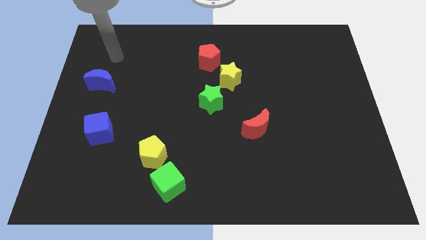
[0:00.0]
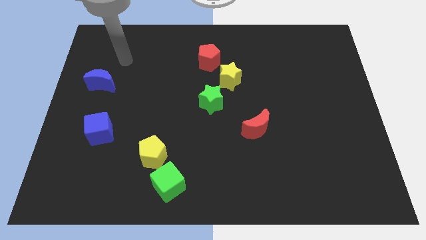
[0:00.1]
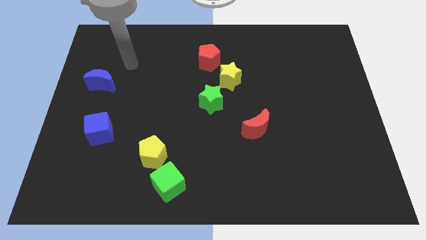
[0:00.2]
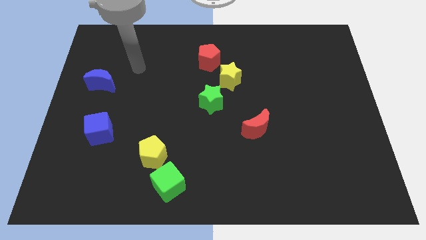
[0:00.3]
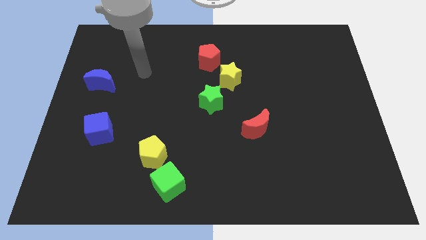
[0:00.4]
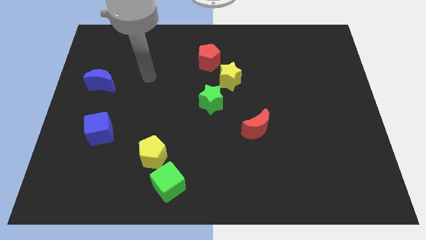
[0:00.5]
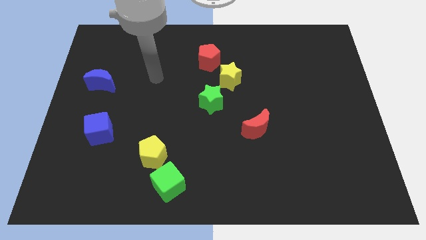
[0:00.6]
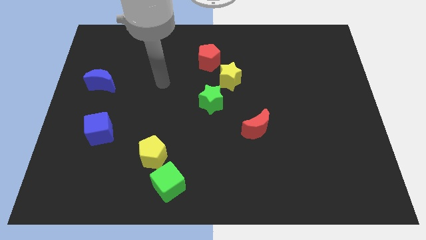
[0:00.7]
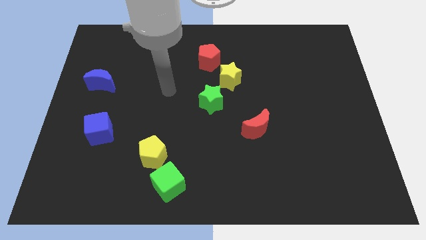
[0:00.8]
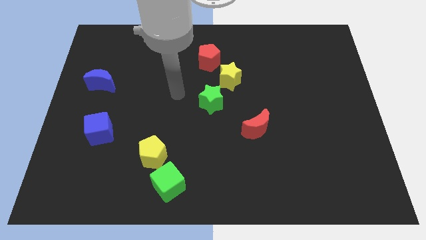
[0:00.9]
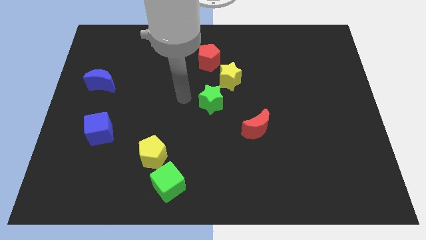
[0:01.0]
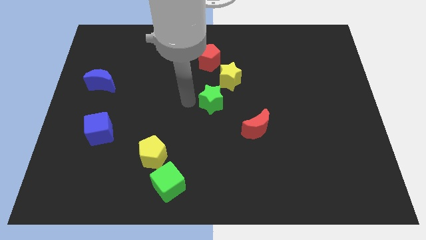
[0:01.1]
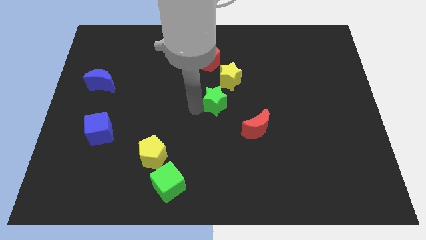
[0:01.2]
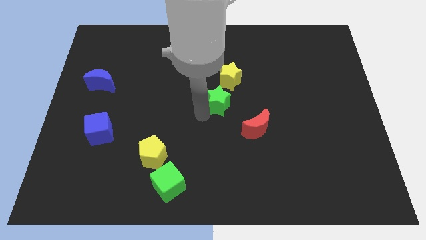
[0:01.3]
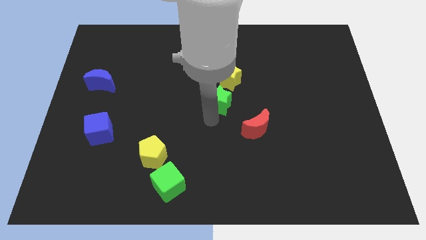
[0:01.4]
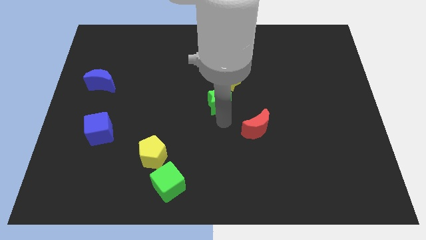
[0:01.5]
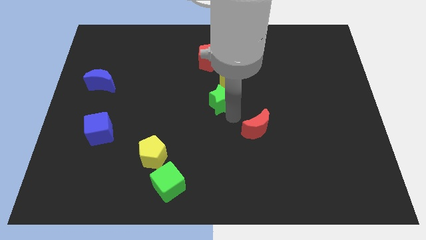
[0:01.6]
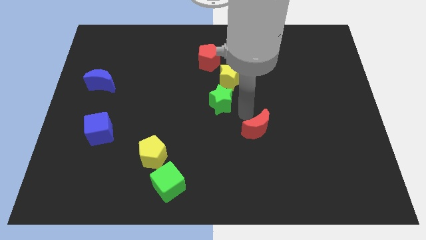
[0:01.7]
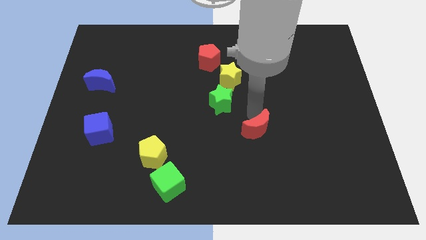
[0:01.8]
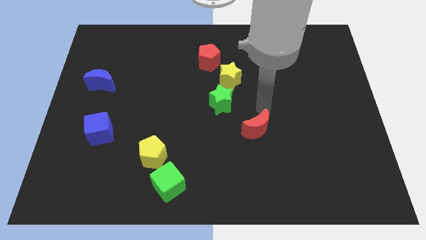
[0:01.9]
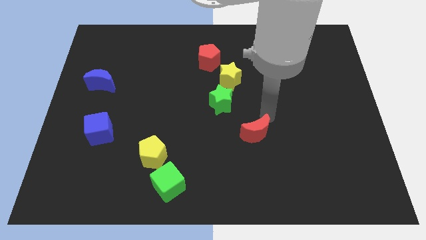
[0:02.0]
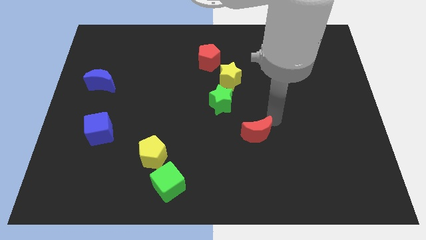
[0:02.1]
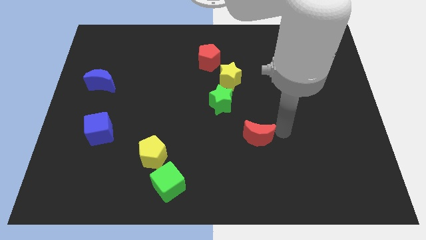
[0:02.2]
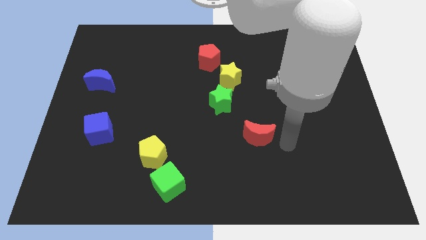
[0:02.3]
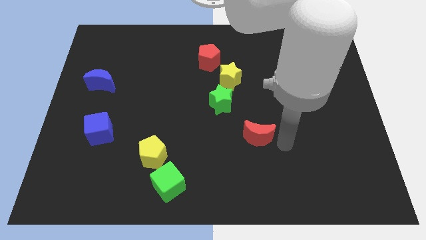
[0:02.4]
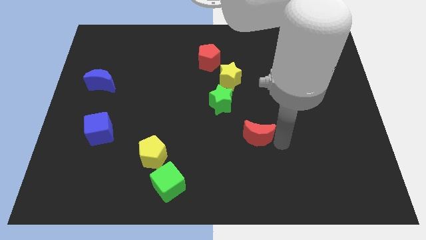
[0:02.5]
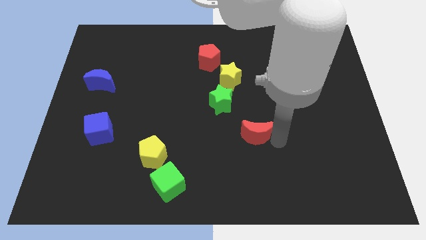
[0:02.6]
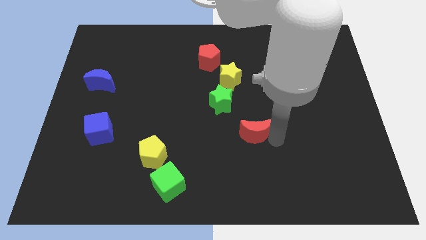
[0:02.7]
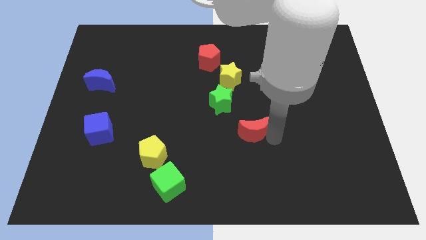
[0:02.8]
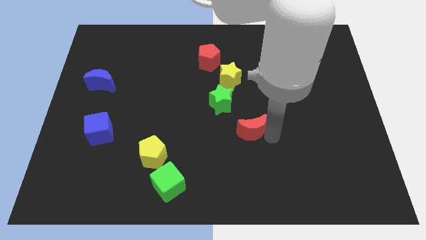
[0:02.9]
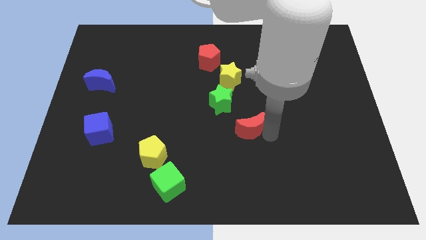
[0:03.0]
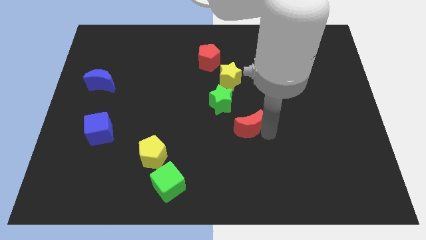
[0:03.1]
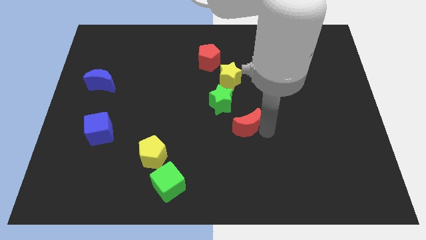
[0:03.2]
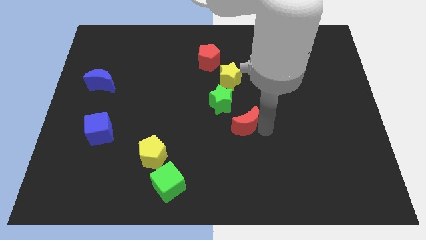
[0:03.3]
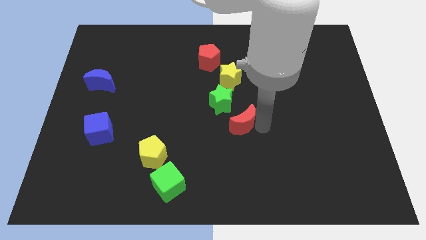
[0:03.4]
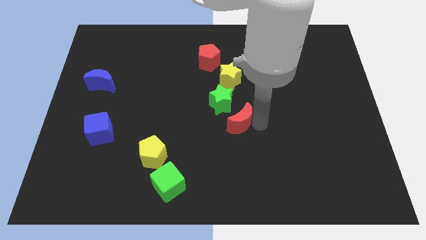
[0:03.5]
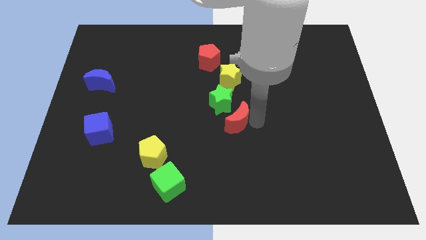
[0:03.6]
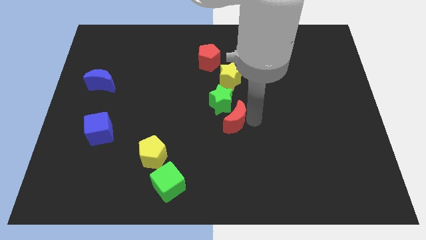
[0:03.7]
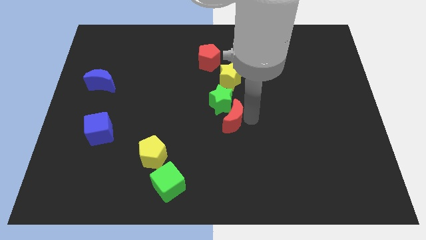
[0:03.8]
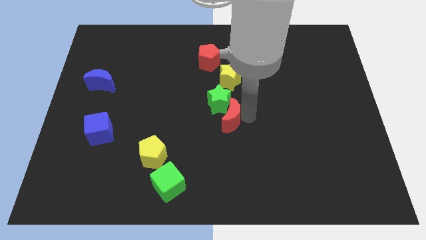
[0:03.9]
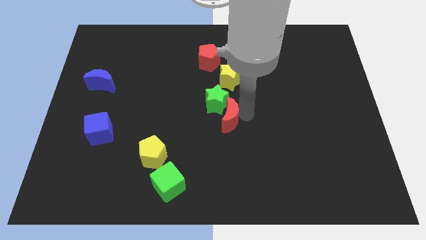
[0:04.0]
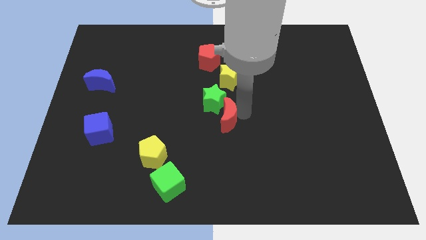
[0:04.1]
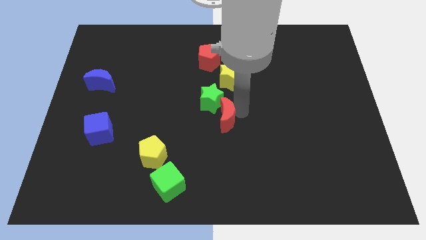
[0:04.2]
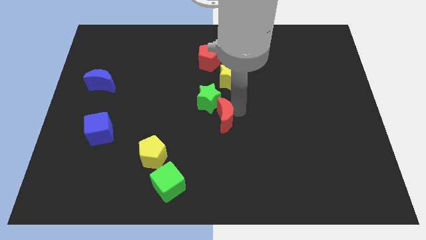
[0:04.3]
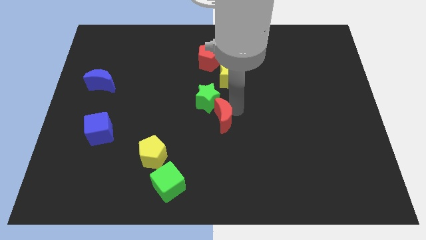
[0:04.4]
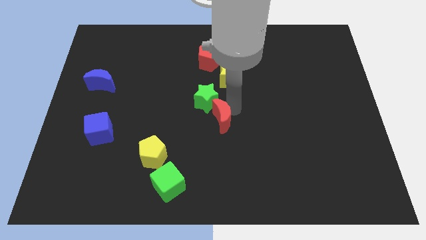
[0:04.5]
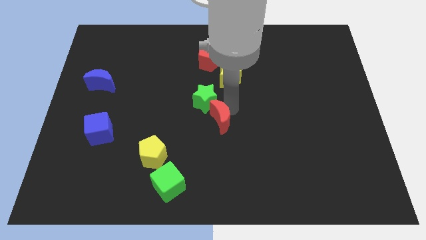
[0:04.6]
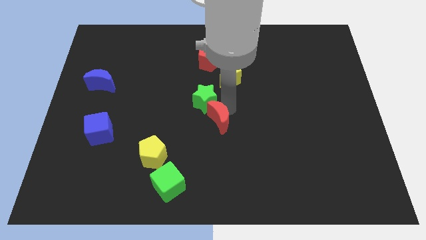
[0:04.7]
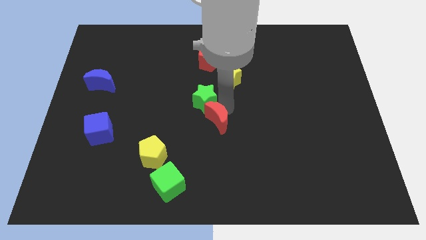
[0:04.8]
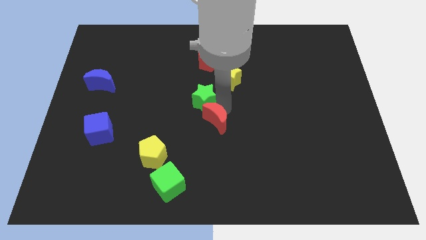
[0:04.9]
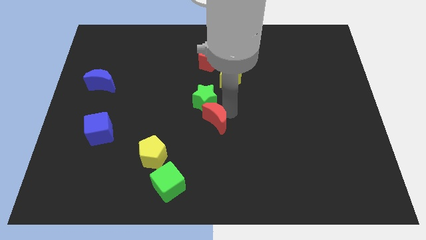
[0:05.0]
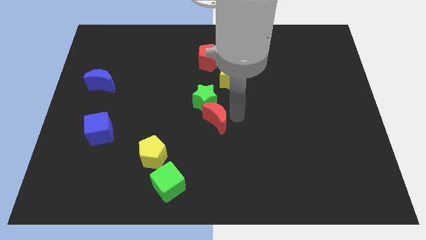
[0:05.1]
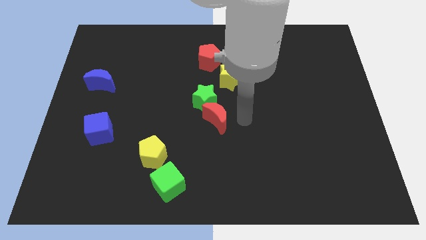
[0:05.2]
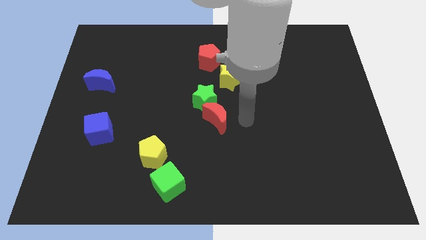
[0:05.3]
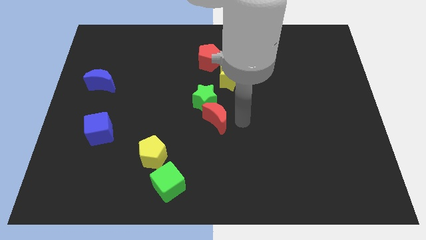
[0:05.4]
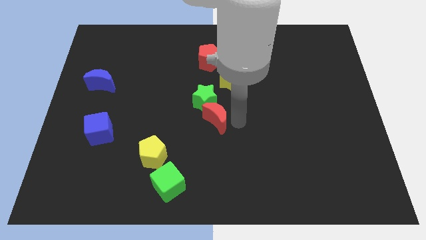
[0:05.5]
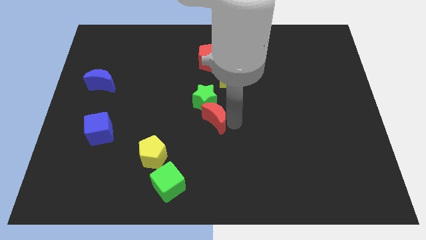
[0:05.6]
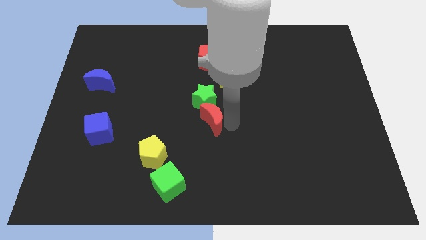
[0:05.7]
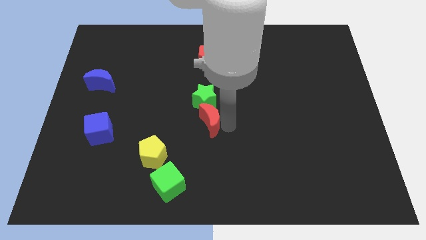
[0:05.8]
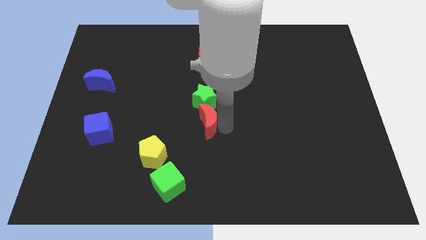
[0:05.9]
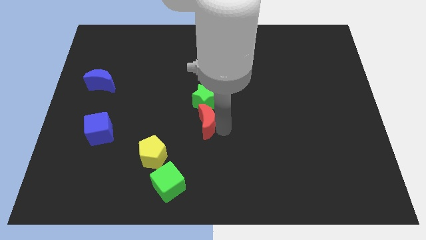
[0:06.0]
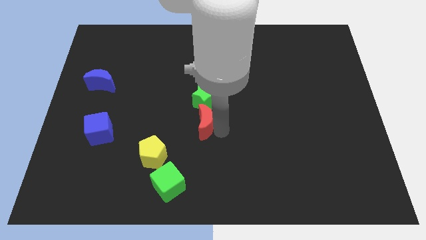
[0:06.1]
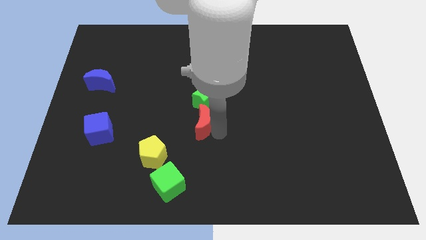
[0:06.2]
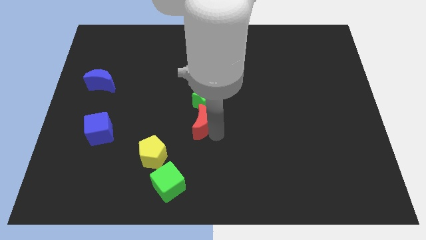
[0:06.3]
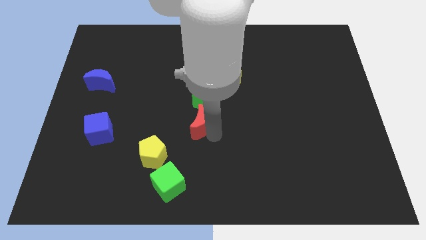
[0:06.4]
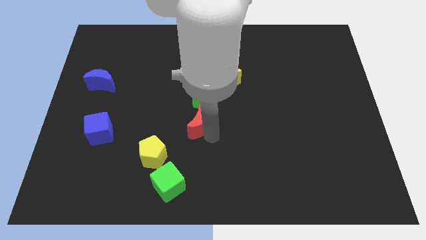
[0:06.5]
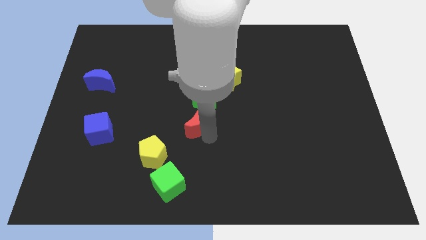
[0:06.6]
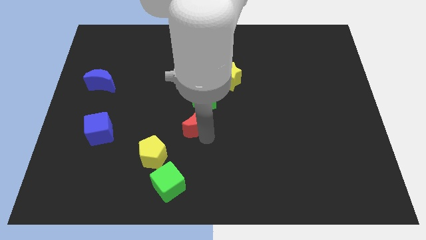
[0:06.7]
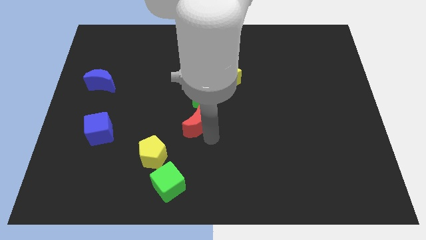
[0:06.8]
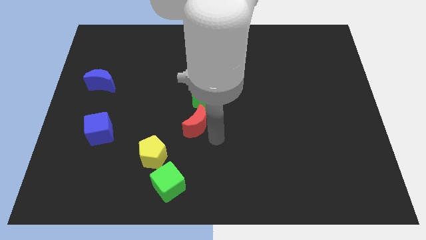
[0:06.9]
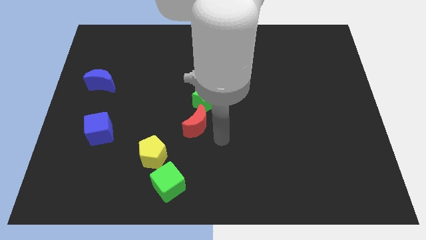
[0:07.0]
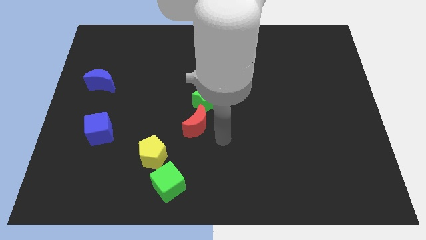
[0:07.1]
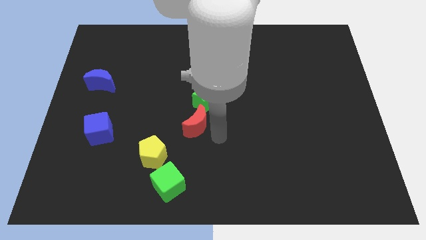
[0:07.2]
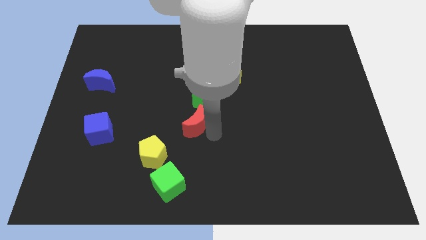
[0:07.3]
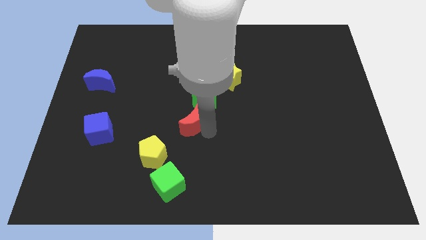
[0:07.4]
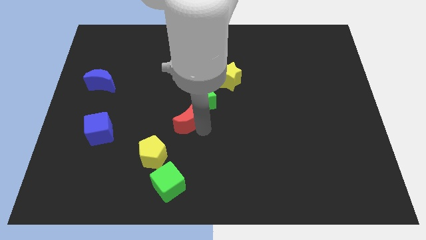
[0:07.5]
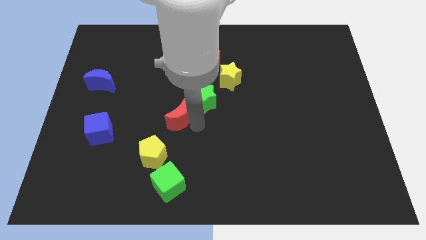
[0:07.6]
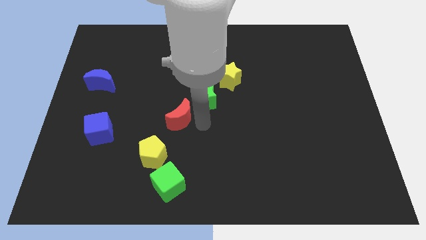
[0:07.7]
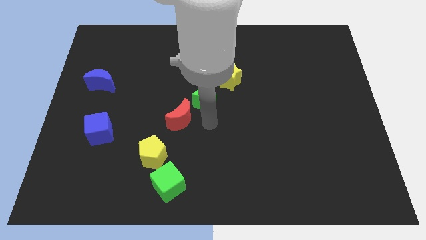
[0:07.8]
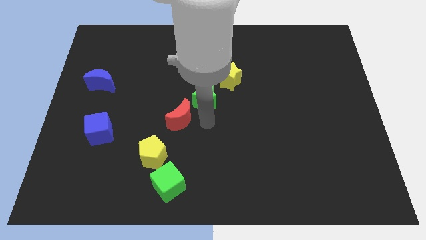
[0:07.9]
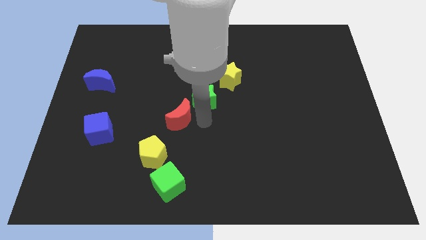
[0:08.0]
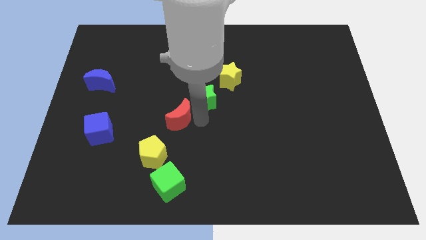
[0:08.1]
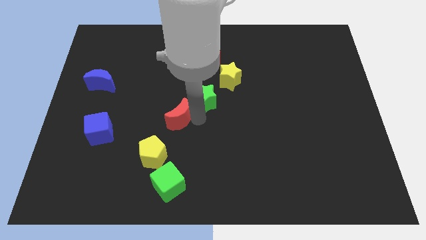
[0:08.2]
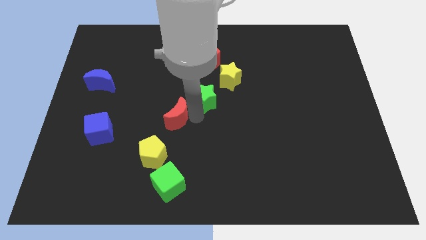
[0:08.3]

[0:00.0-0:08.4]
push the red moon above the yellow pentagon
